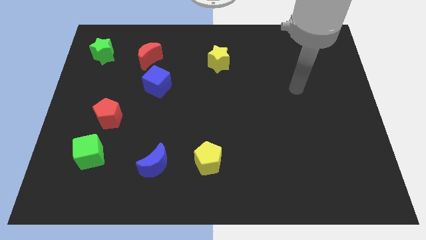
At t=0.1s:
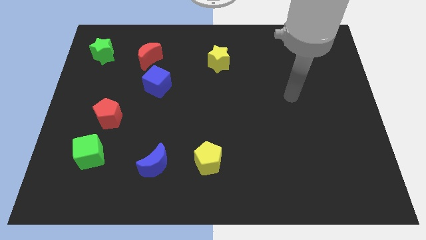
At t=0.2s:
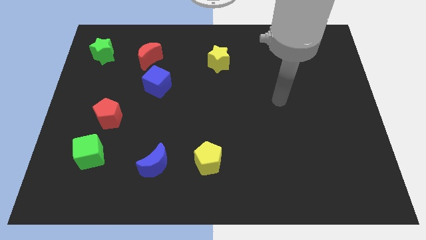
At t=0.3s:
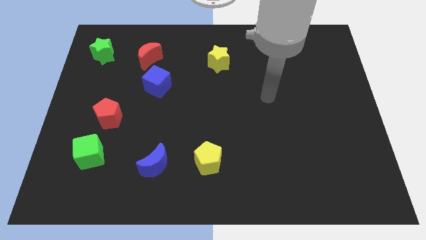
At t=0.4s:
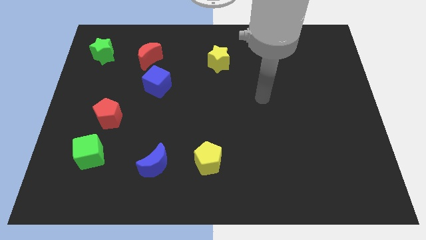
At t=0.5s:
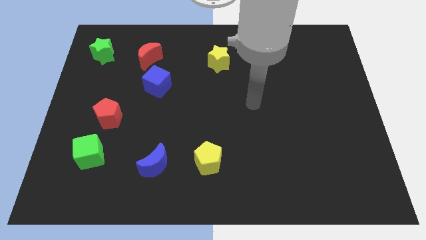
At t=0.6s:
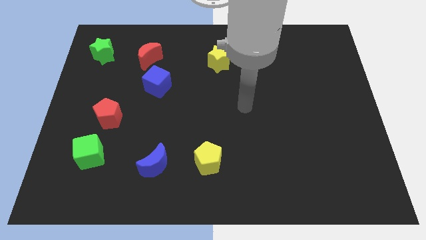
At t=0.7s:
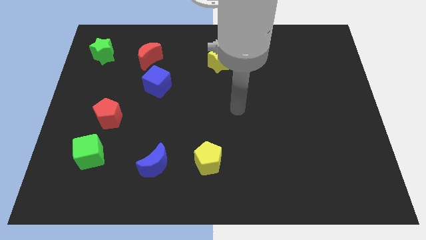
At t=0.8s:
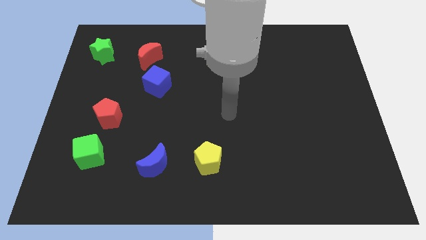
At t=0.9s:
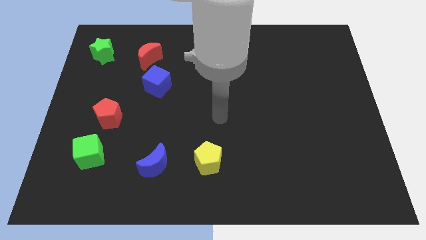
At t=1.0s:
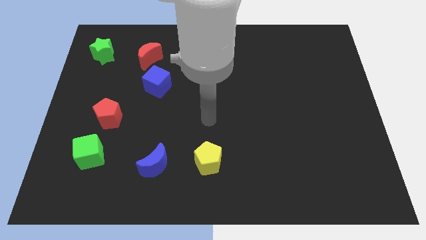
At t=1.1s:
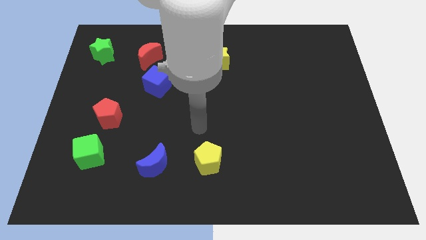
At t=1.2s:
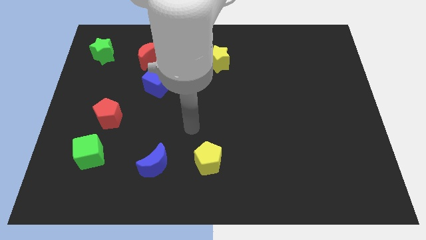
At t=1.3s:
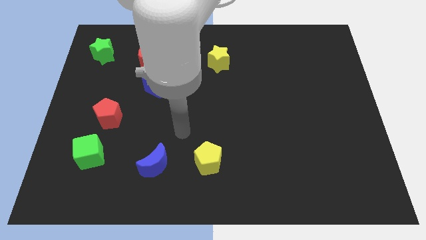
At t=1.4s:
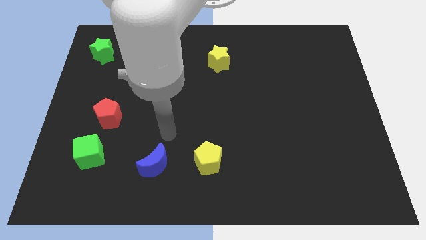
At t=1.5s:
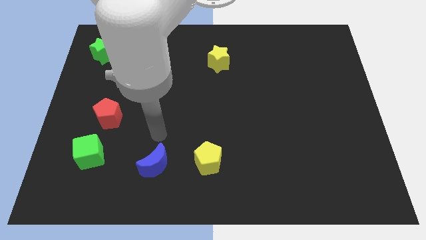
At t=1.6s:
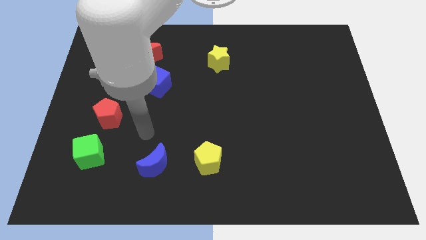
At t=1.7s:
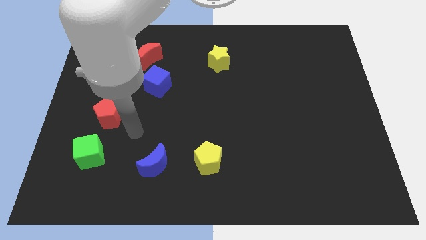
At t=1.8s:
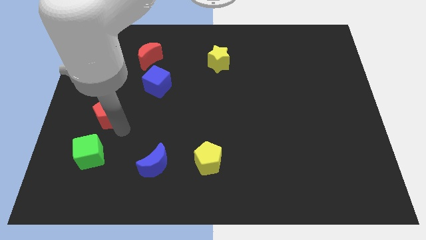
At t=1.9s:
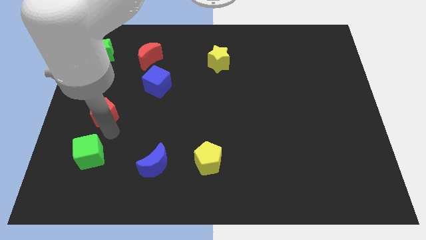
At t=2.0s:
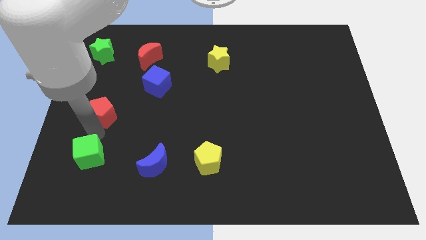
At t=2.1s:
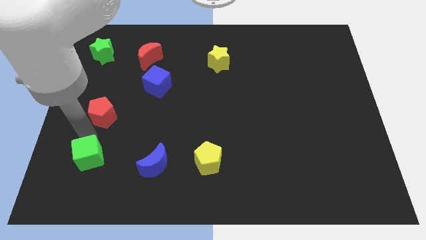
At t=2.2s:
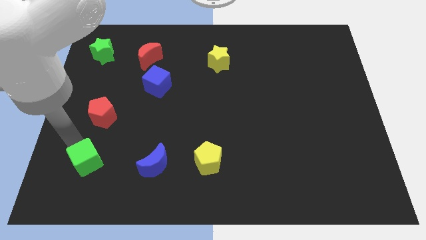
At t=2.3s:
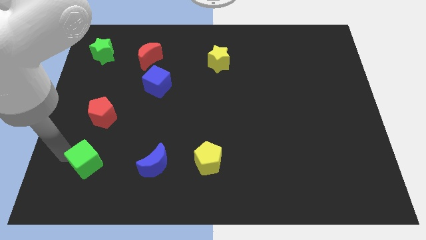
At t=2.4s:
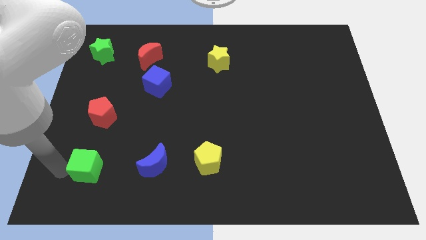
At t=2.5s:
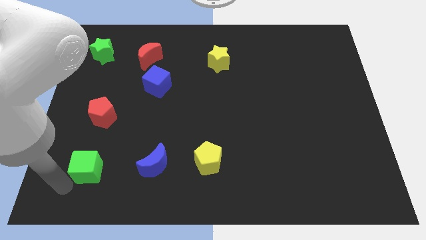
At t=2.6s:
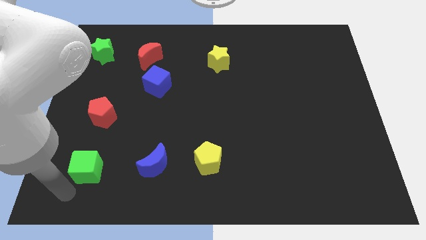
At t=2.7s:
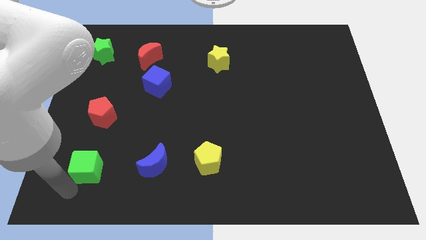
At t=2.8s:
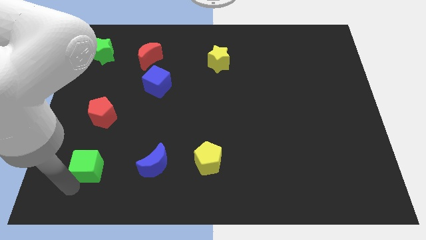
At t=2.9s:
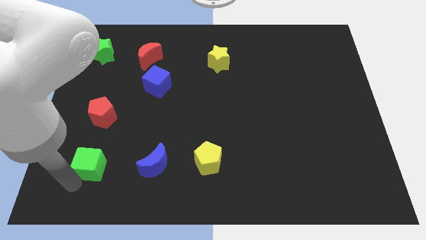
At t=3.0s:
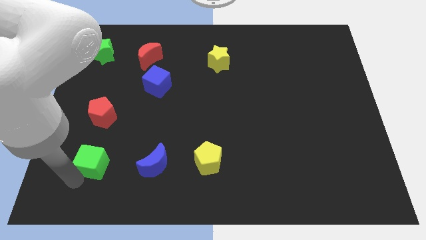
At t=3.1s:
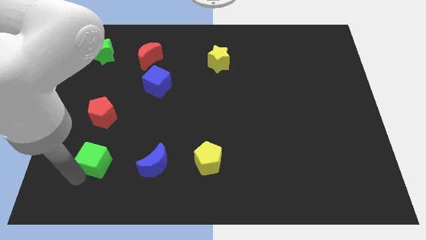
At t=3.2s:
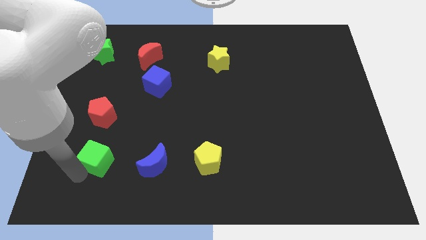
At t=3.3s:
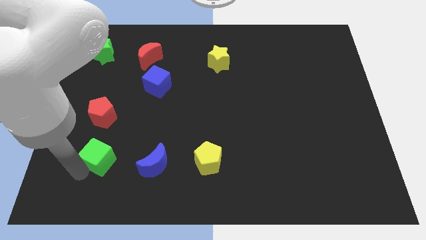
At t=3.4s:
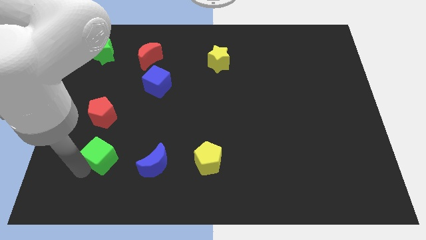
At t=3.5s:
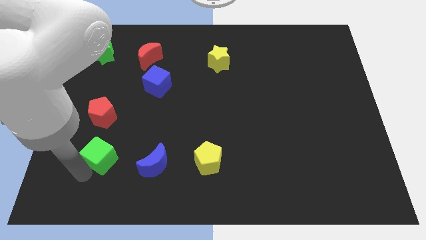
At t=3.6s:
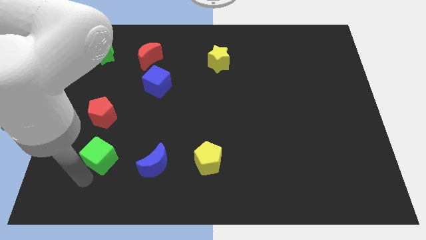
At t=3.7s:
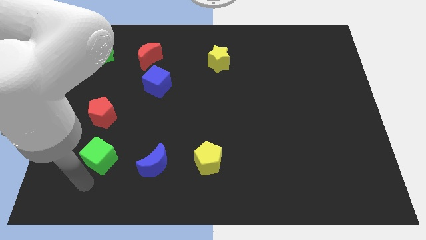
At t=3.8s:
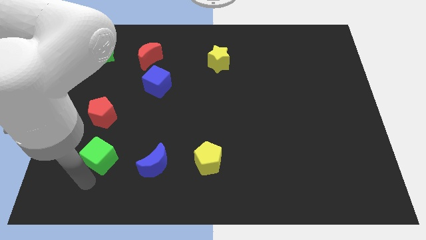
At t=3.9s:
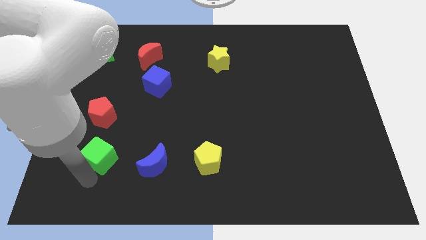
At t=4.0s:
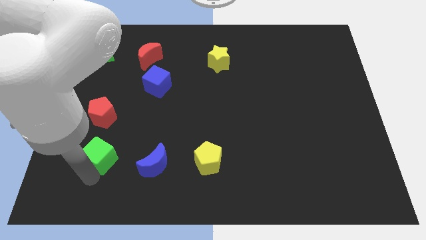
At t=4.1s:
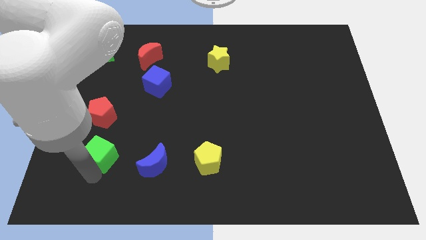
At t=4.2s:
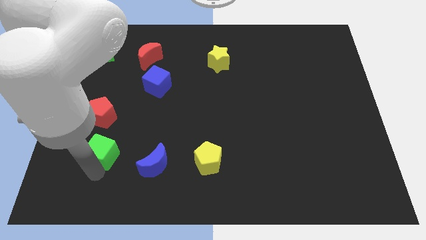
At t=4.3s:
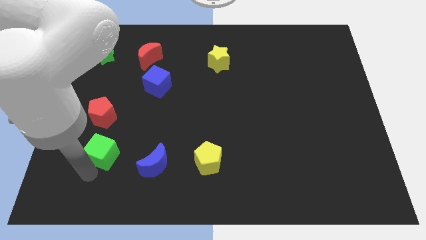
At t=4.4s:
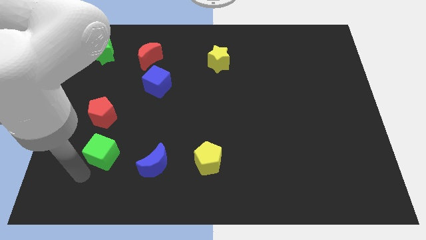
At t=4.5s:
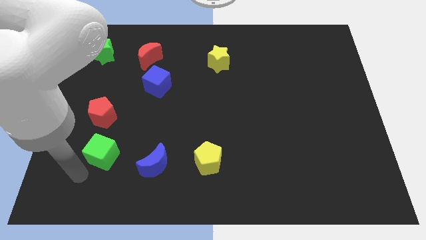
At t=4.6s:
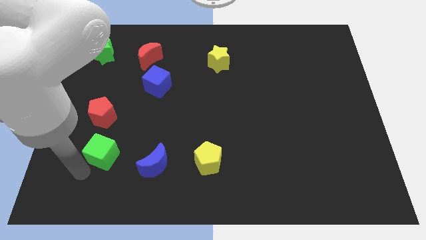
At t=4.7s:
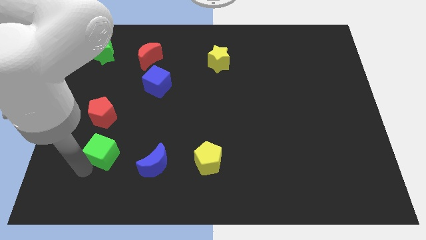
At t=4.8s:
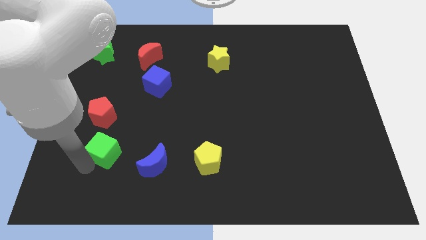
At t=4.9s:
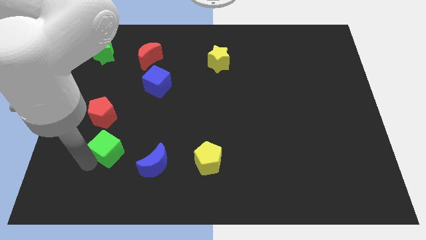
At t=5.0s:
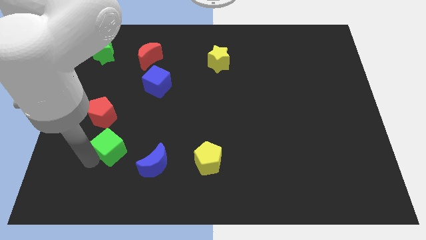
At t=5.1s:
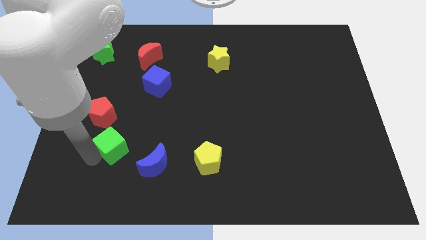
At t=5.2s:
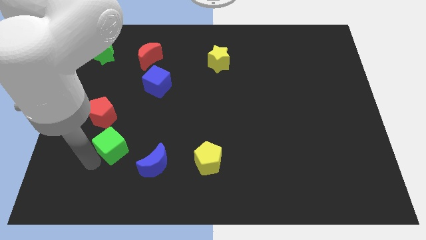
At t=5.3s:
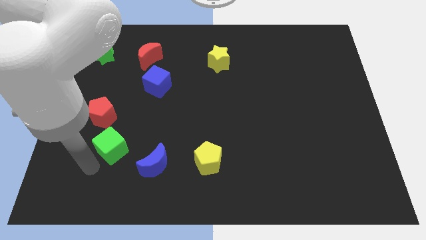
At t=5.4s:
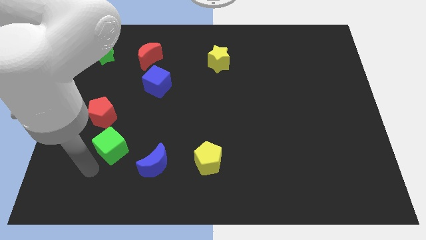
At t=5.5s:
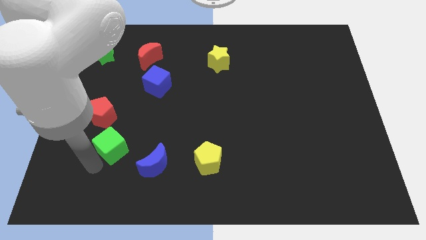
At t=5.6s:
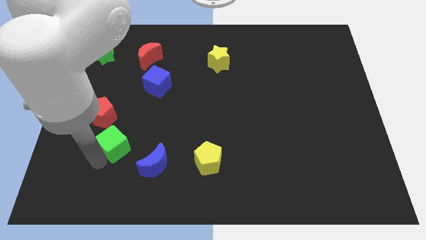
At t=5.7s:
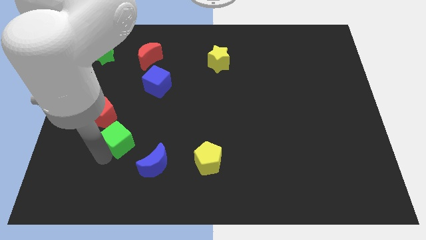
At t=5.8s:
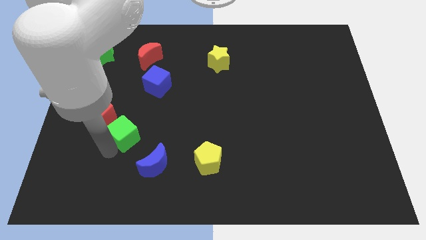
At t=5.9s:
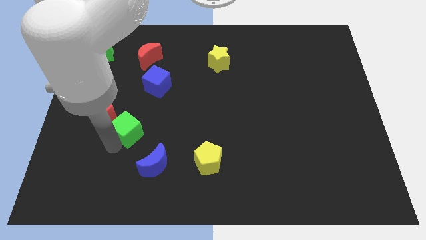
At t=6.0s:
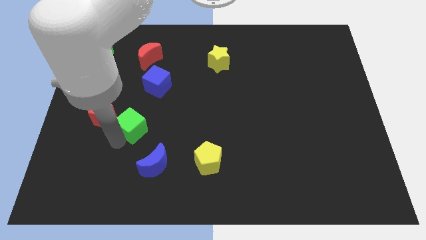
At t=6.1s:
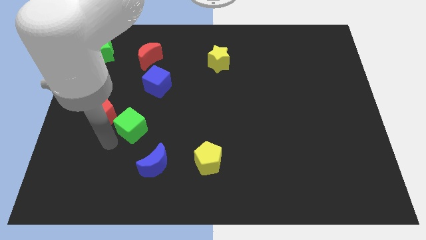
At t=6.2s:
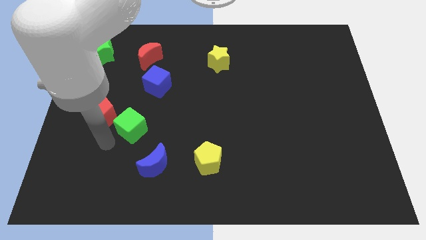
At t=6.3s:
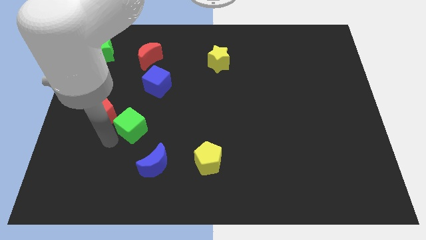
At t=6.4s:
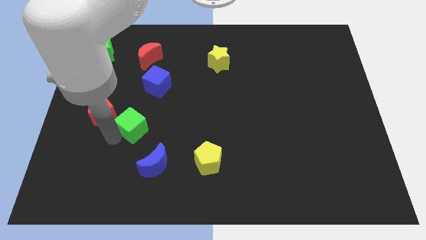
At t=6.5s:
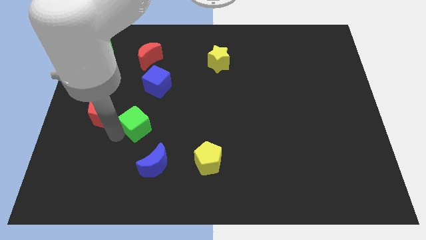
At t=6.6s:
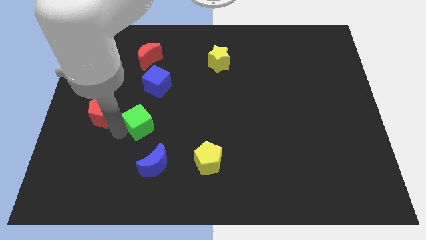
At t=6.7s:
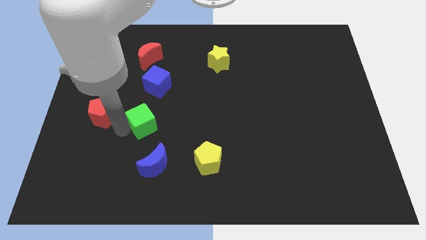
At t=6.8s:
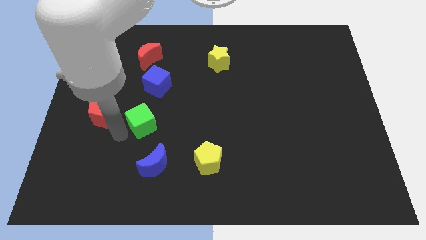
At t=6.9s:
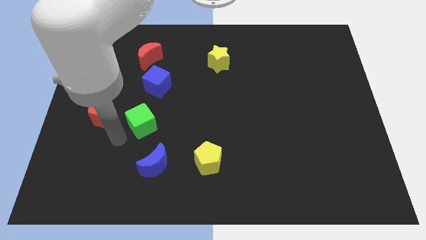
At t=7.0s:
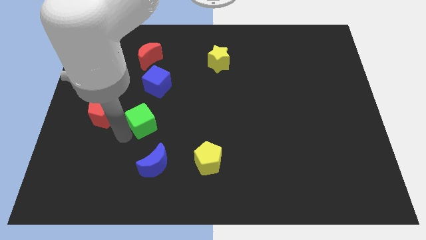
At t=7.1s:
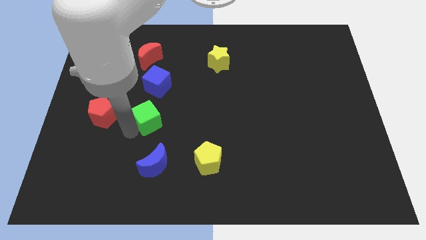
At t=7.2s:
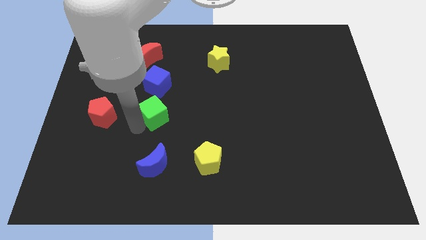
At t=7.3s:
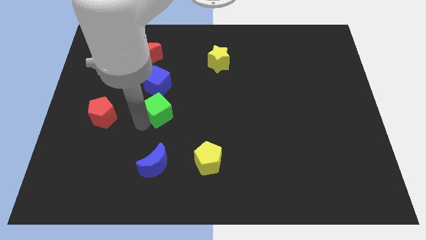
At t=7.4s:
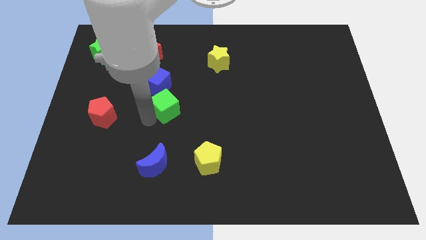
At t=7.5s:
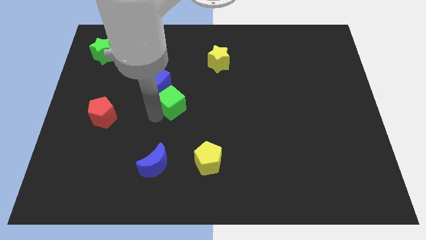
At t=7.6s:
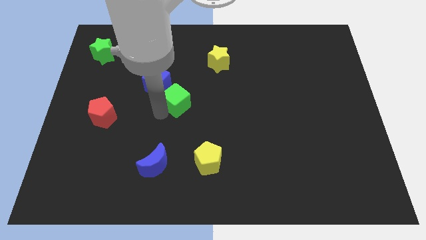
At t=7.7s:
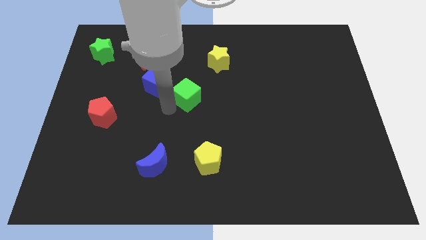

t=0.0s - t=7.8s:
move the green cube to the right side of the blue cube
